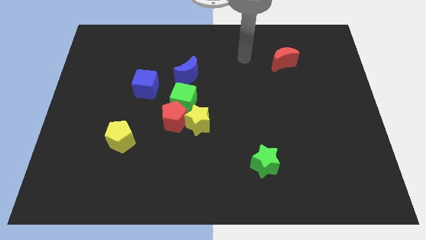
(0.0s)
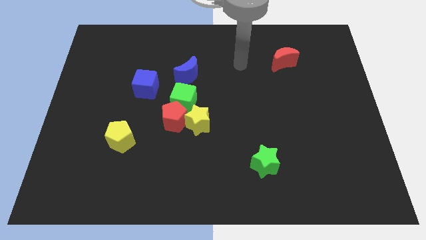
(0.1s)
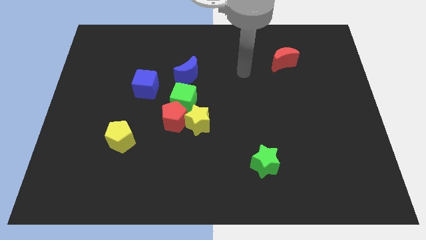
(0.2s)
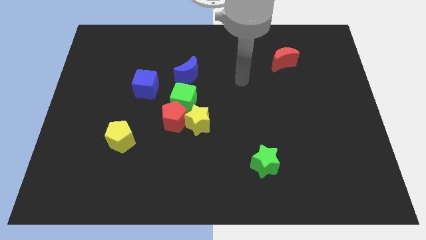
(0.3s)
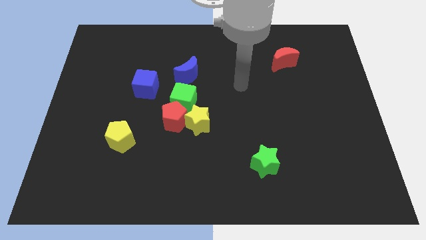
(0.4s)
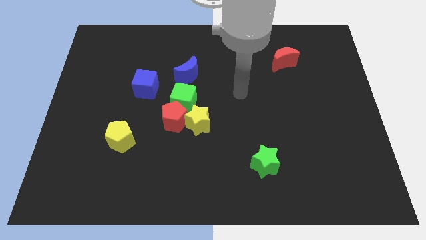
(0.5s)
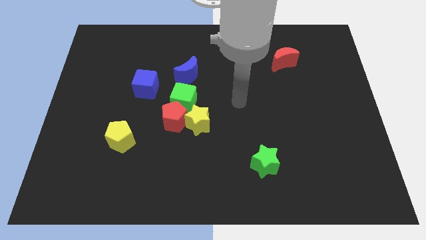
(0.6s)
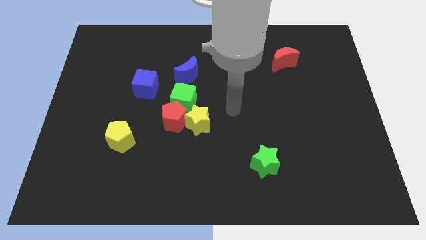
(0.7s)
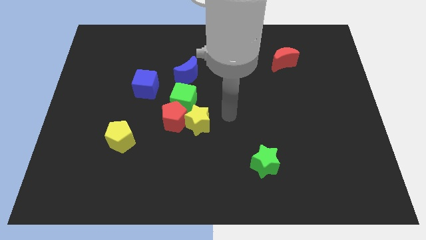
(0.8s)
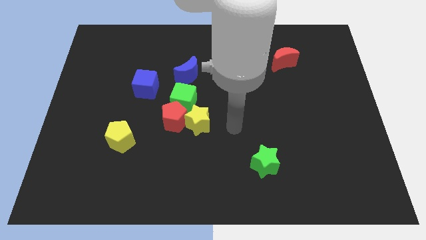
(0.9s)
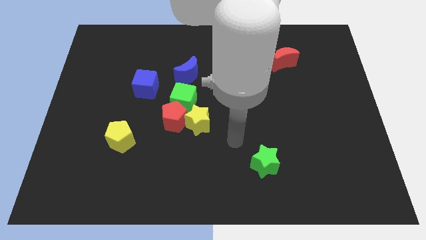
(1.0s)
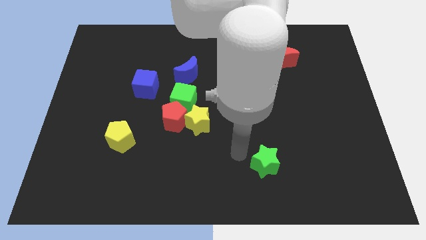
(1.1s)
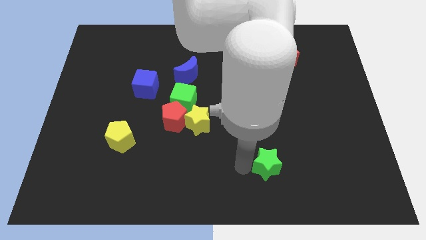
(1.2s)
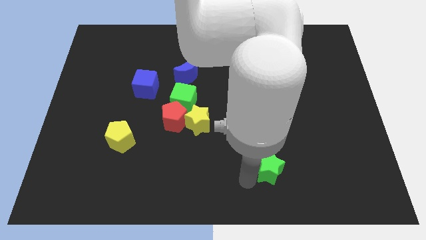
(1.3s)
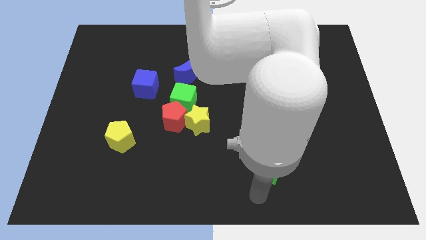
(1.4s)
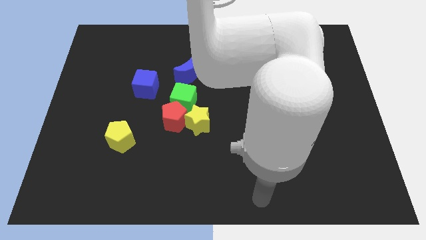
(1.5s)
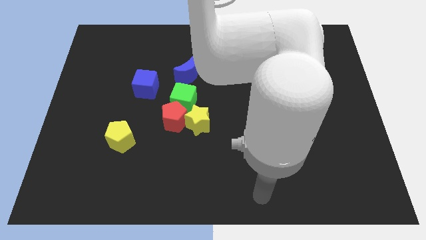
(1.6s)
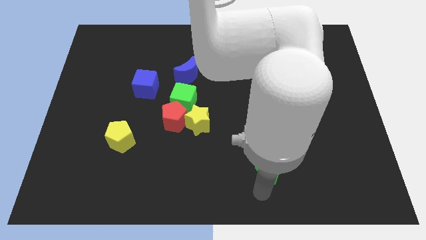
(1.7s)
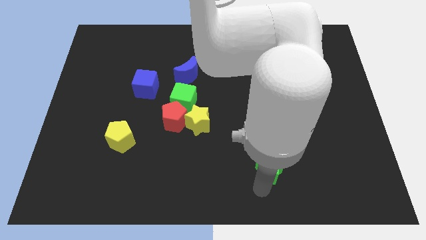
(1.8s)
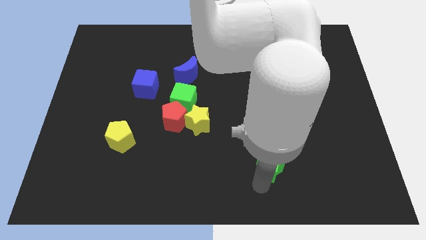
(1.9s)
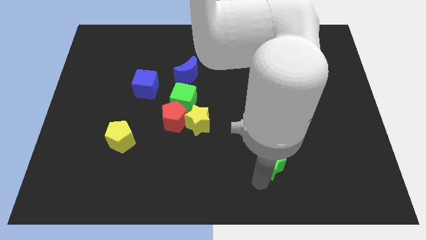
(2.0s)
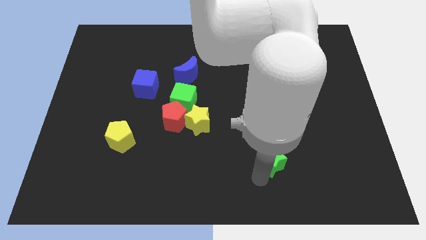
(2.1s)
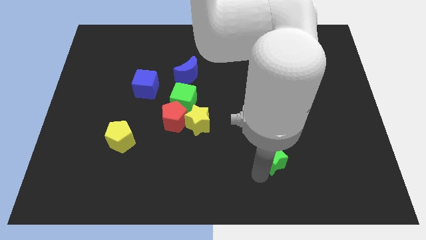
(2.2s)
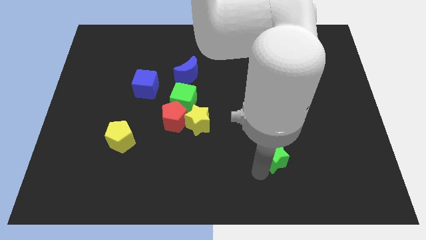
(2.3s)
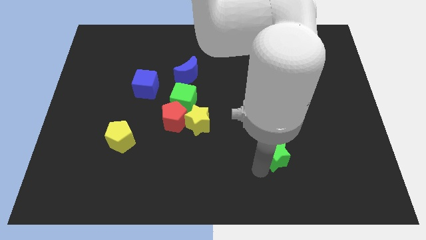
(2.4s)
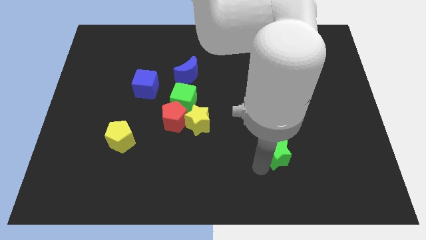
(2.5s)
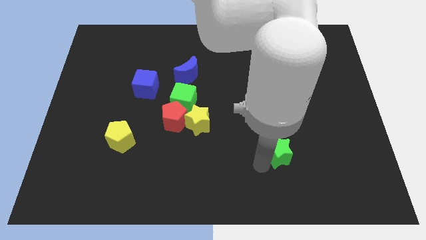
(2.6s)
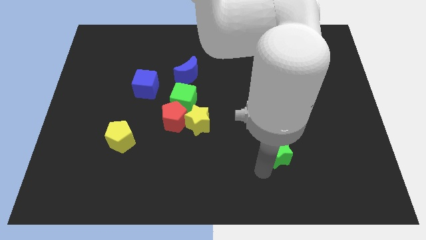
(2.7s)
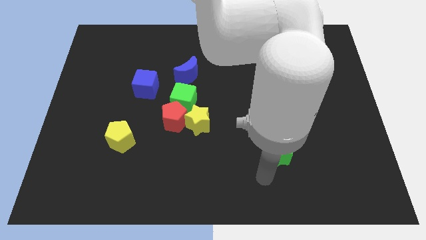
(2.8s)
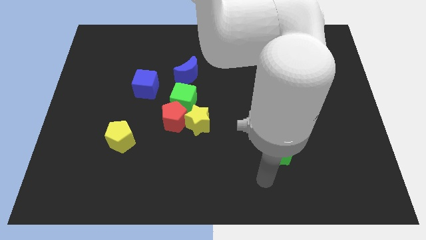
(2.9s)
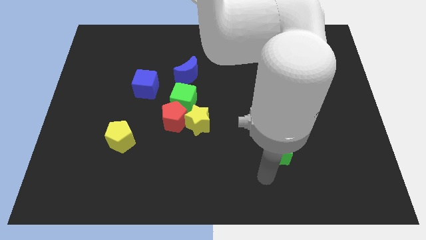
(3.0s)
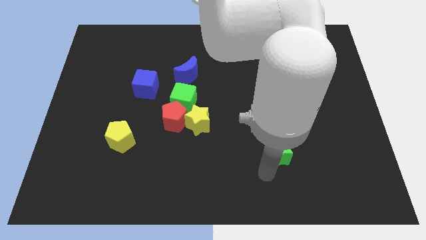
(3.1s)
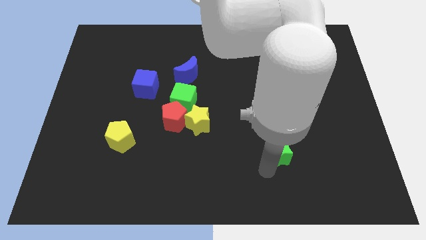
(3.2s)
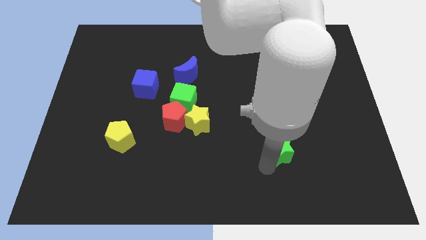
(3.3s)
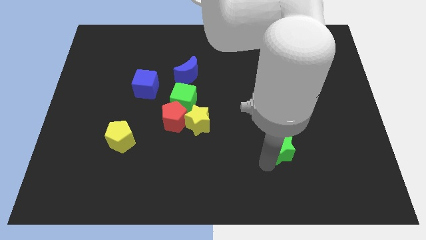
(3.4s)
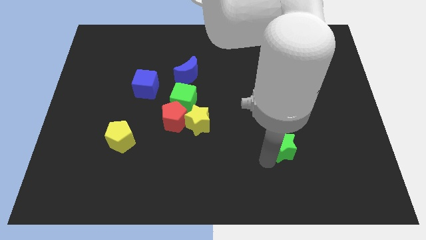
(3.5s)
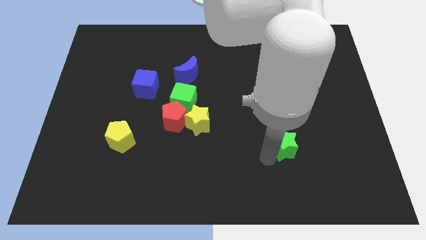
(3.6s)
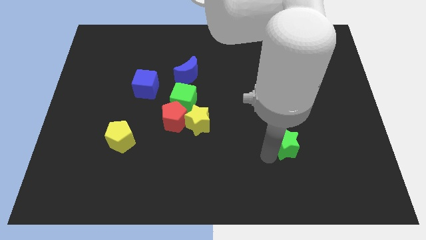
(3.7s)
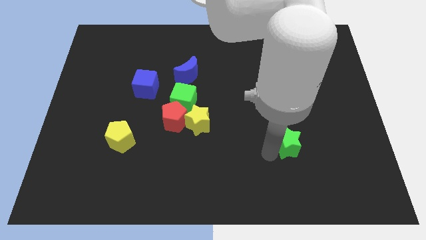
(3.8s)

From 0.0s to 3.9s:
slide the green star up and then right a little bit

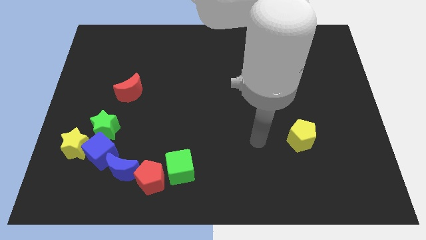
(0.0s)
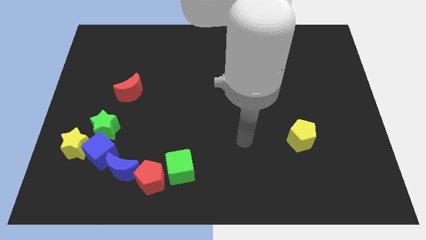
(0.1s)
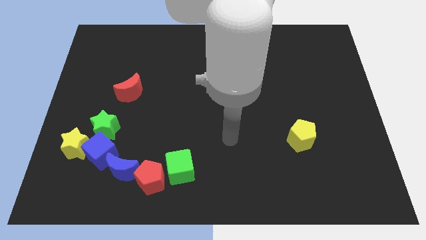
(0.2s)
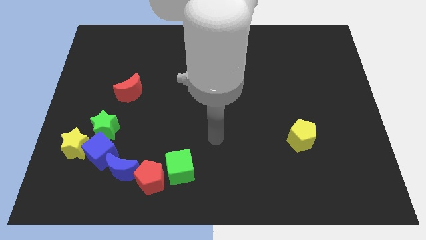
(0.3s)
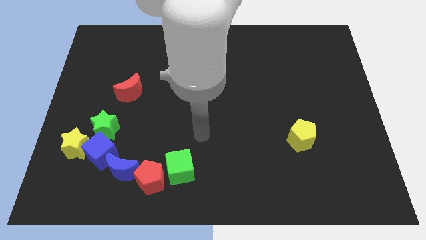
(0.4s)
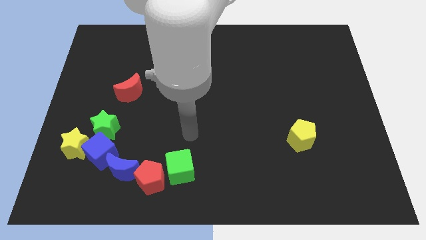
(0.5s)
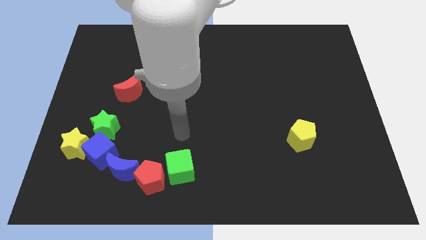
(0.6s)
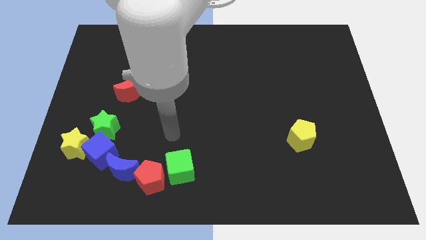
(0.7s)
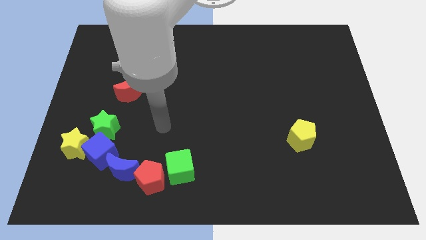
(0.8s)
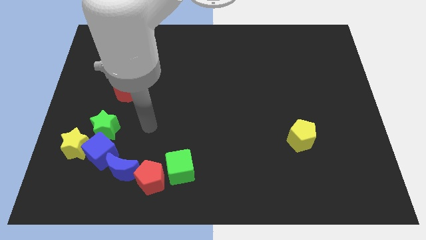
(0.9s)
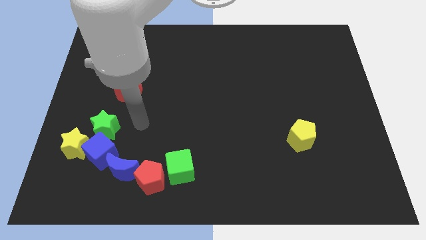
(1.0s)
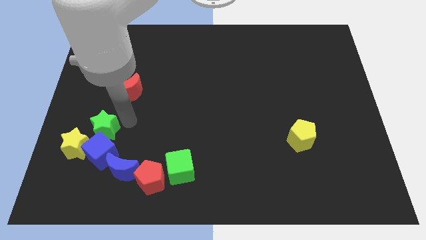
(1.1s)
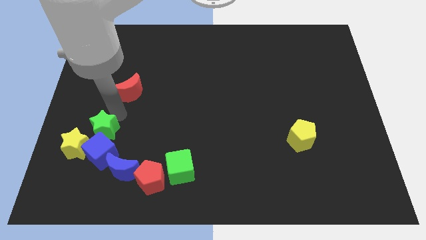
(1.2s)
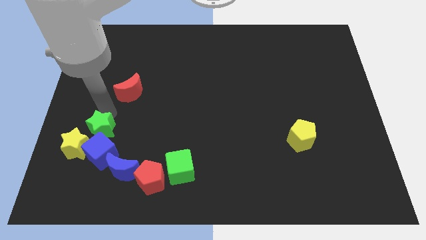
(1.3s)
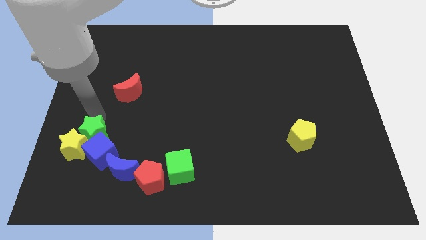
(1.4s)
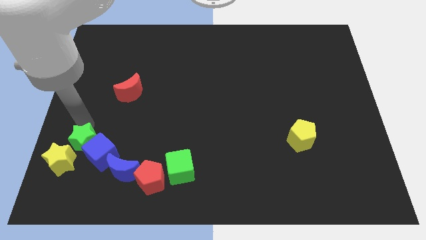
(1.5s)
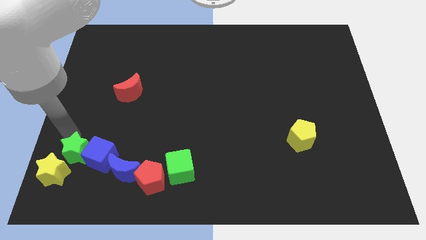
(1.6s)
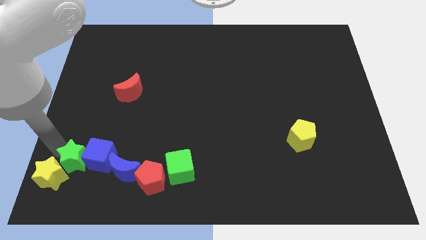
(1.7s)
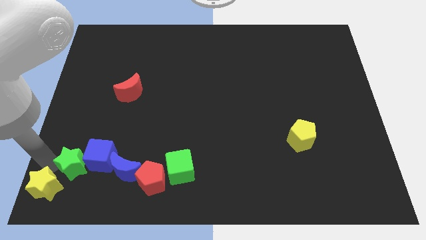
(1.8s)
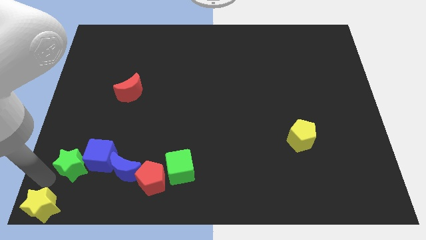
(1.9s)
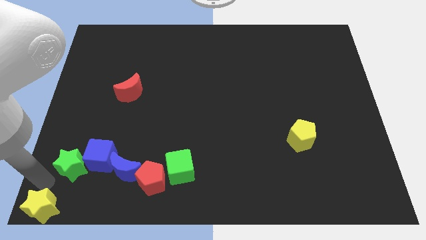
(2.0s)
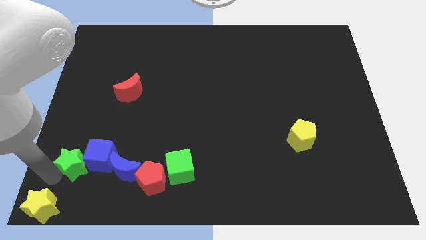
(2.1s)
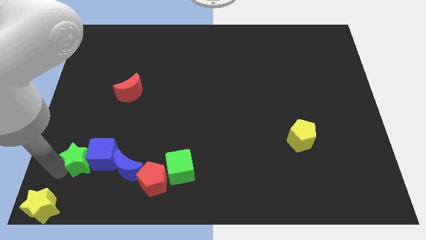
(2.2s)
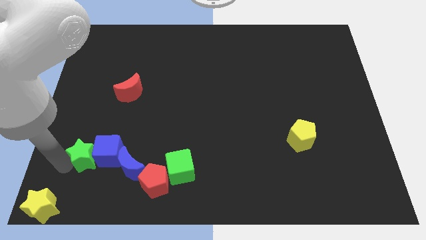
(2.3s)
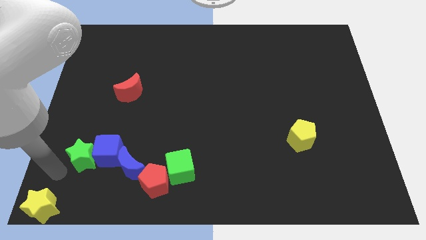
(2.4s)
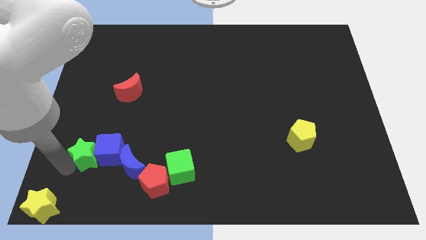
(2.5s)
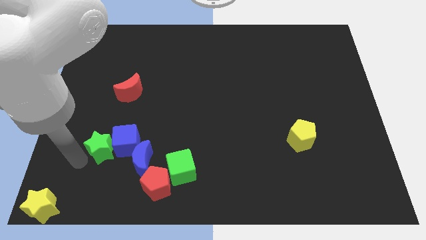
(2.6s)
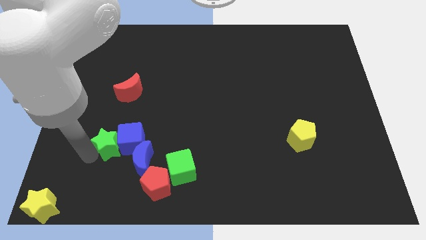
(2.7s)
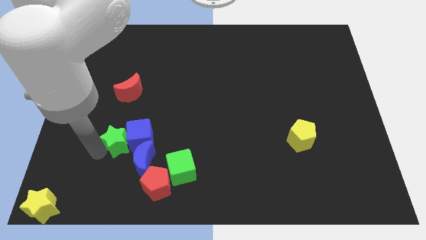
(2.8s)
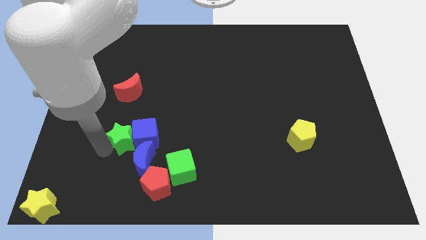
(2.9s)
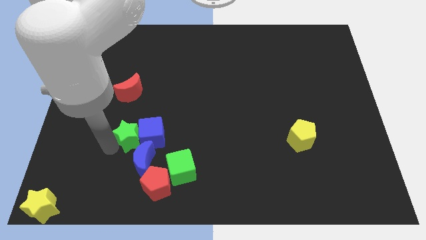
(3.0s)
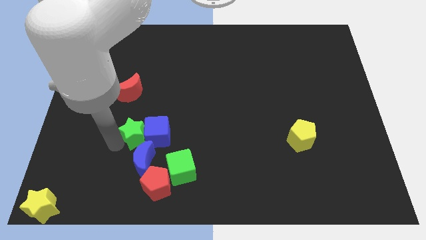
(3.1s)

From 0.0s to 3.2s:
slightly slide the green star to the right

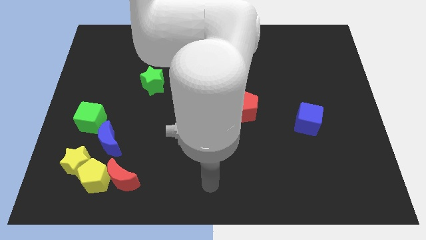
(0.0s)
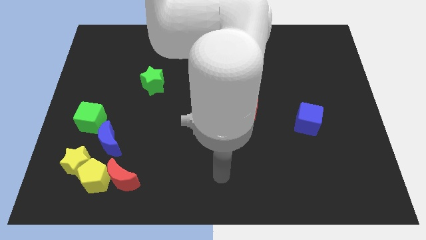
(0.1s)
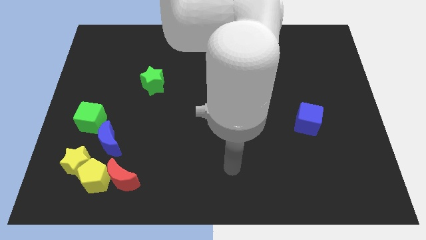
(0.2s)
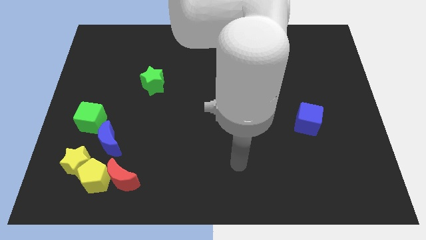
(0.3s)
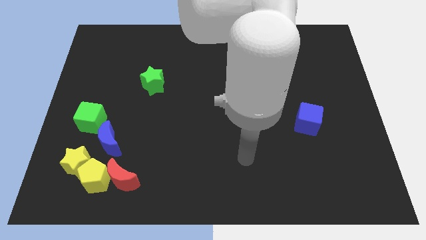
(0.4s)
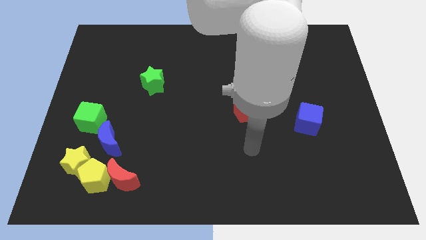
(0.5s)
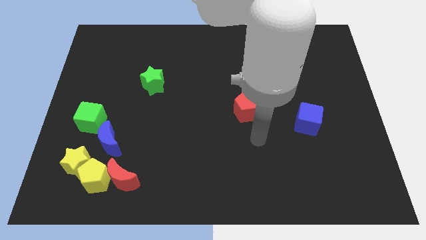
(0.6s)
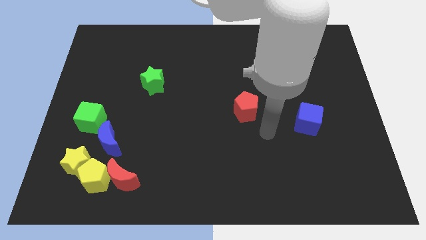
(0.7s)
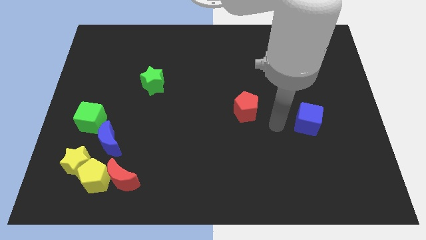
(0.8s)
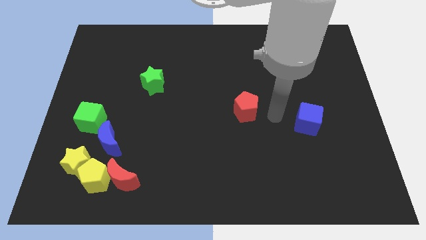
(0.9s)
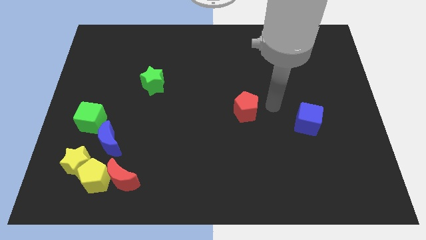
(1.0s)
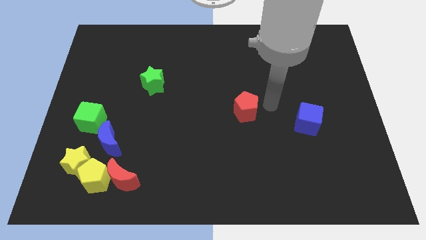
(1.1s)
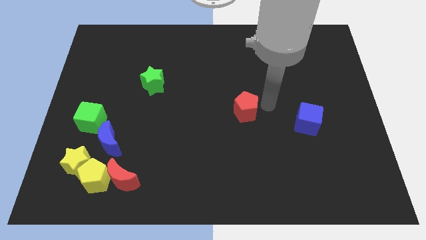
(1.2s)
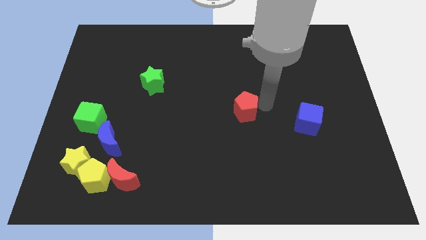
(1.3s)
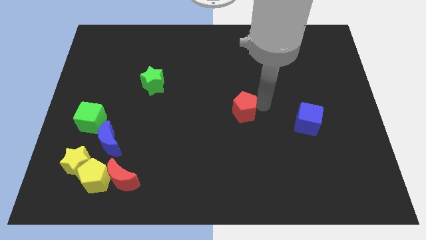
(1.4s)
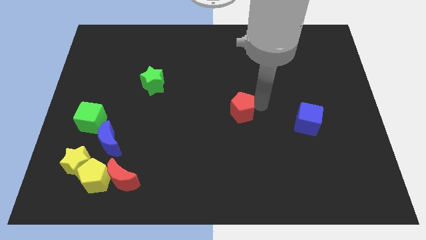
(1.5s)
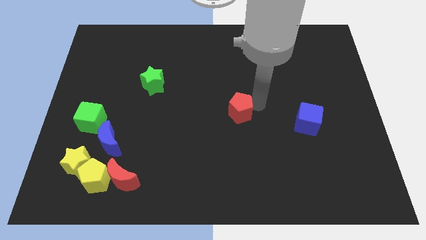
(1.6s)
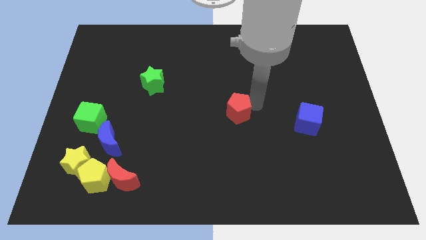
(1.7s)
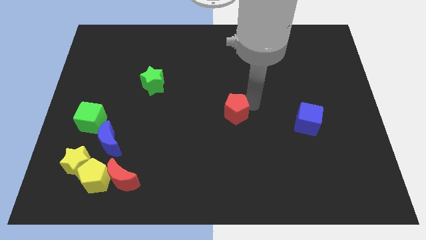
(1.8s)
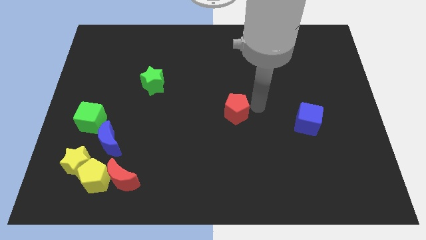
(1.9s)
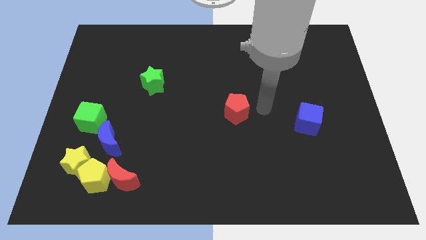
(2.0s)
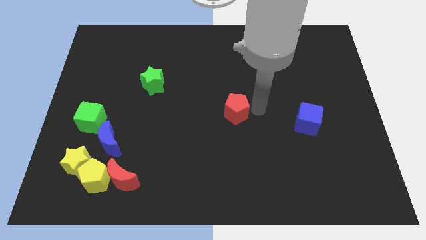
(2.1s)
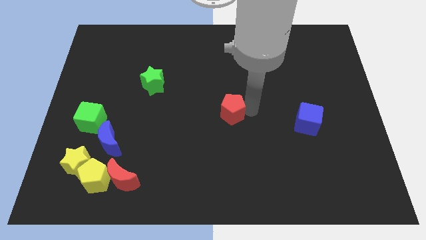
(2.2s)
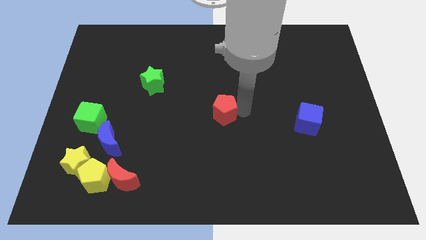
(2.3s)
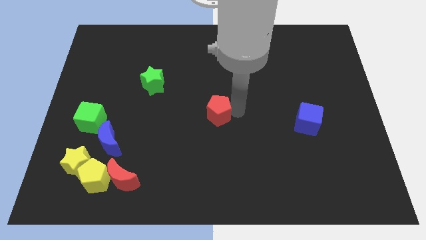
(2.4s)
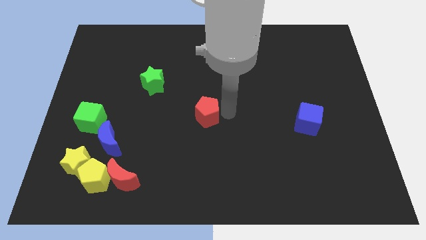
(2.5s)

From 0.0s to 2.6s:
push the red pentagon slightly to the left
